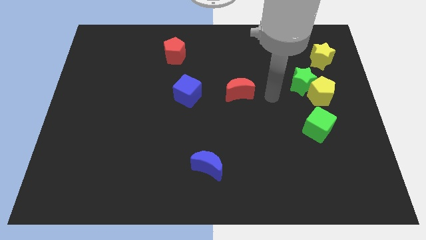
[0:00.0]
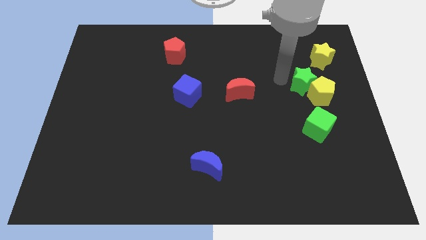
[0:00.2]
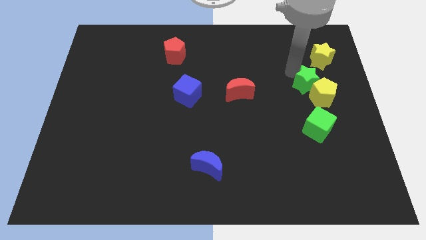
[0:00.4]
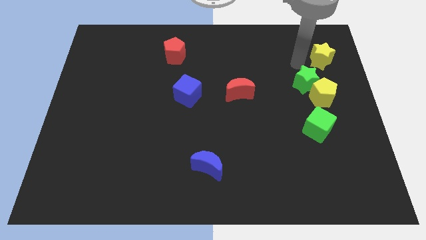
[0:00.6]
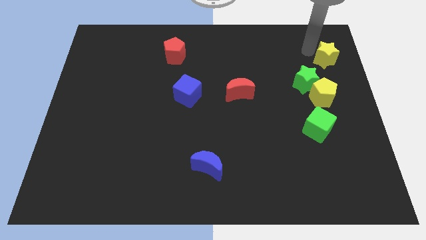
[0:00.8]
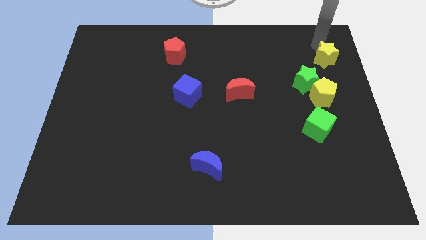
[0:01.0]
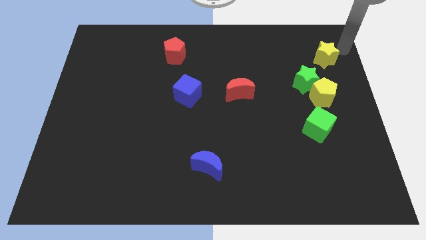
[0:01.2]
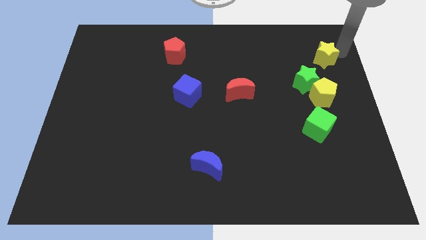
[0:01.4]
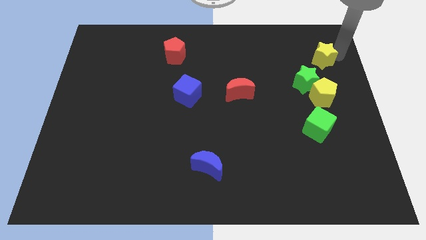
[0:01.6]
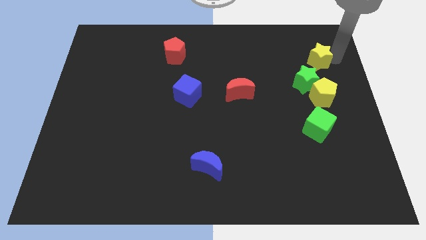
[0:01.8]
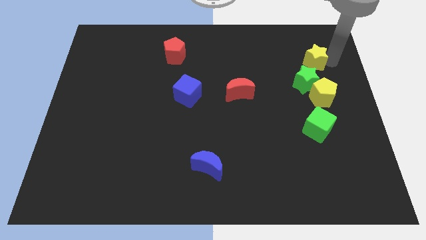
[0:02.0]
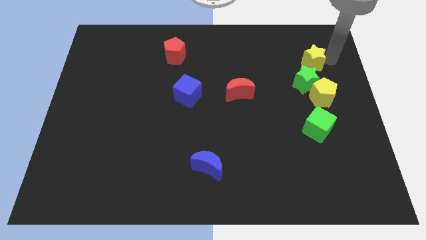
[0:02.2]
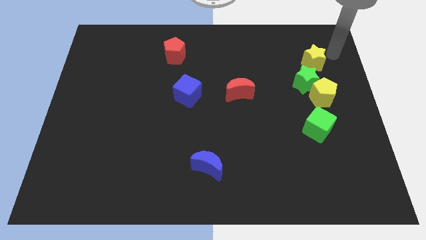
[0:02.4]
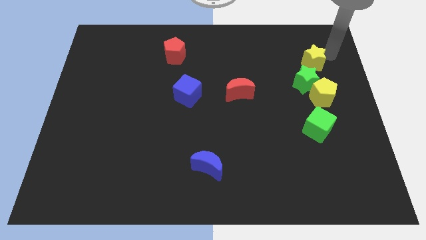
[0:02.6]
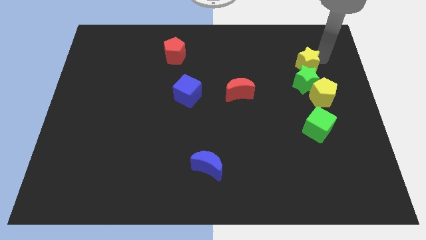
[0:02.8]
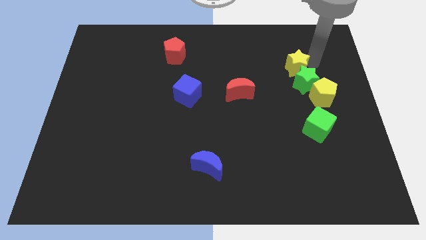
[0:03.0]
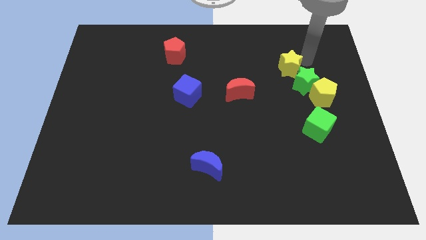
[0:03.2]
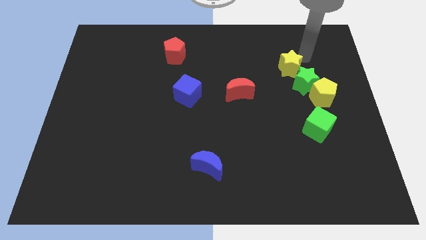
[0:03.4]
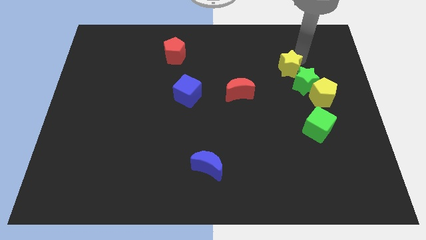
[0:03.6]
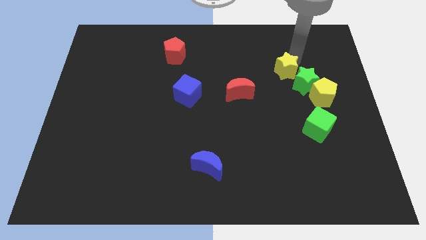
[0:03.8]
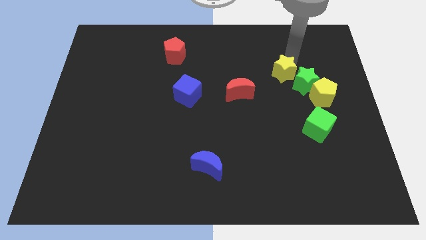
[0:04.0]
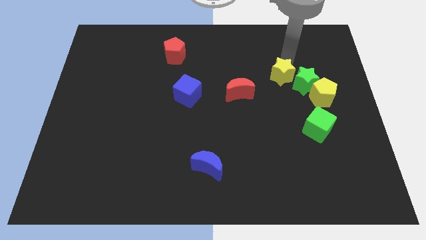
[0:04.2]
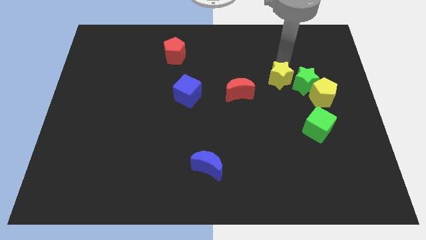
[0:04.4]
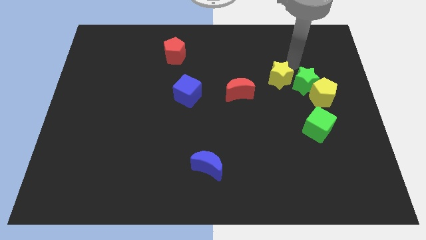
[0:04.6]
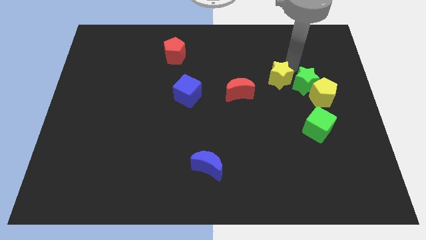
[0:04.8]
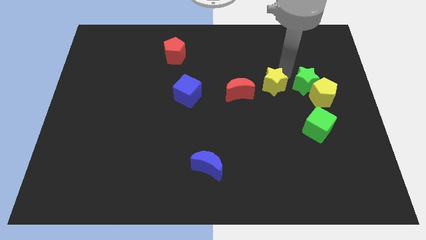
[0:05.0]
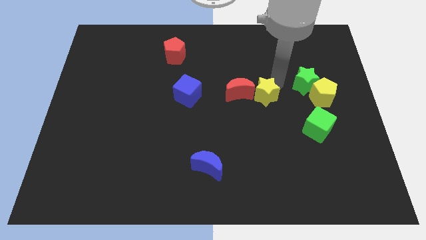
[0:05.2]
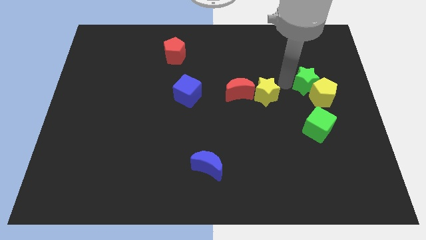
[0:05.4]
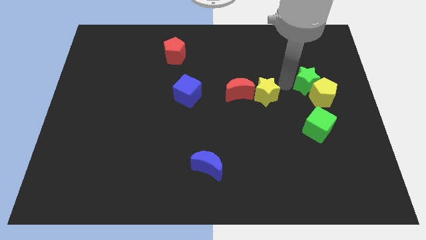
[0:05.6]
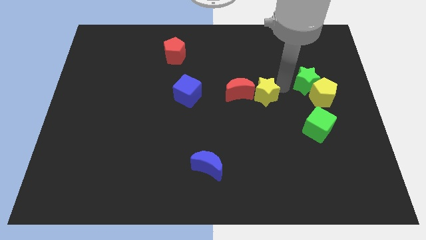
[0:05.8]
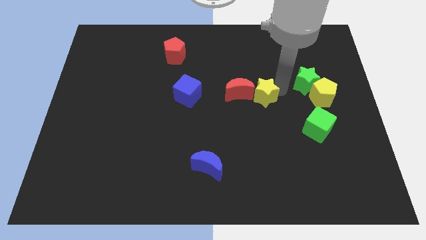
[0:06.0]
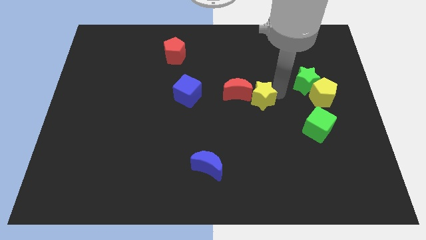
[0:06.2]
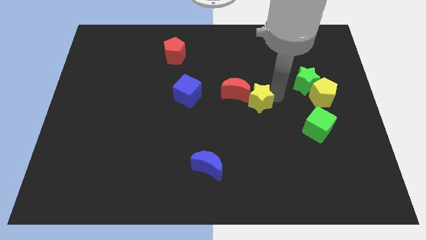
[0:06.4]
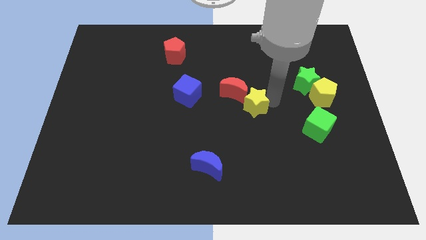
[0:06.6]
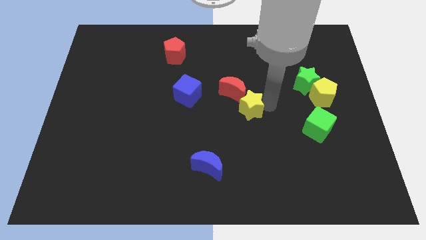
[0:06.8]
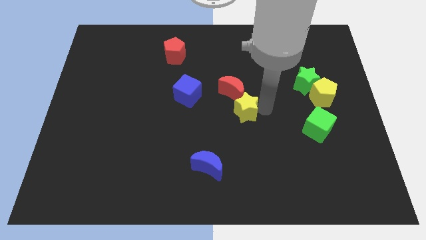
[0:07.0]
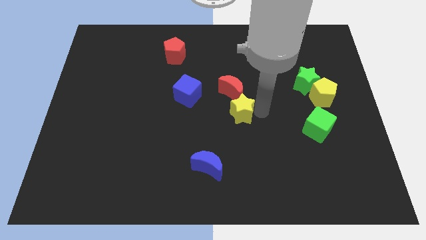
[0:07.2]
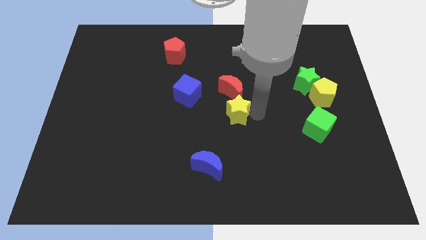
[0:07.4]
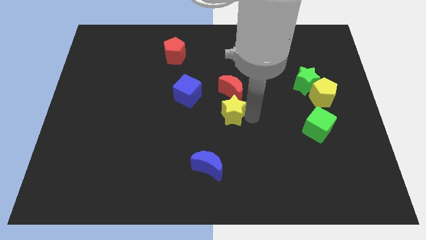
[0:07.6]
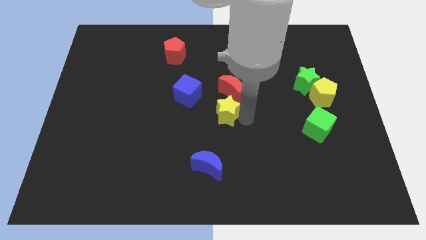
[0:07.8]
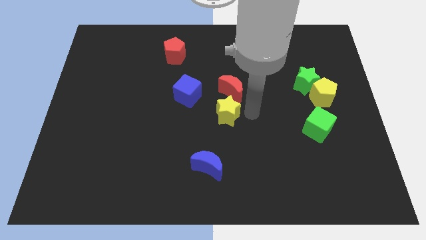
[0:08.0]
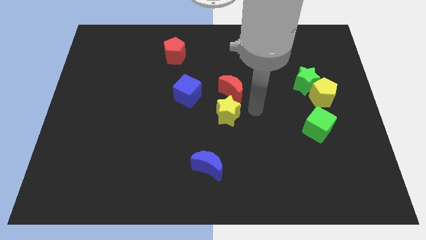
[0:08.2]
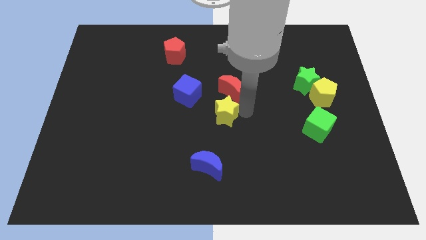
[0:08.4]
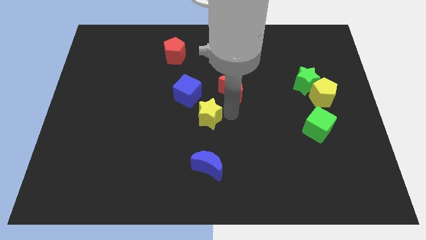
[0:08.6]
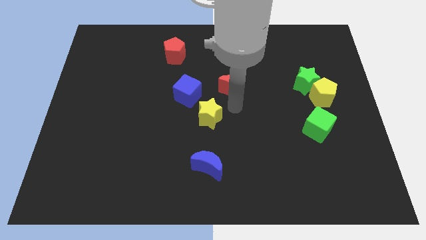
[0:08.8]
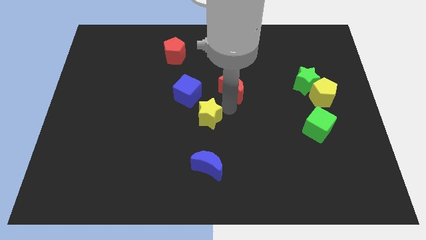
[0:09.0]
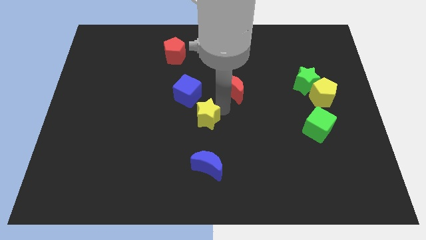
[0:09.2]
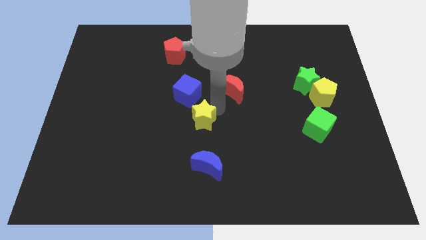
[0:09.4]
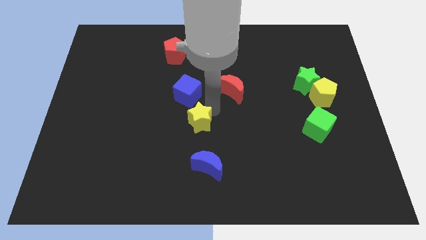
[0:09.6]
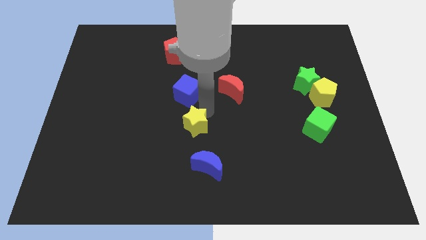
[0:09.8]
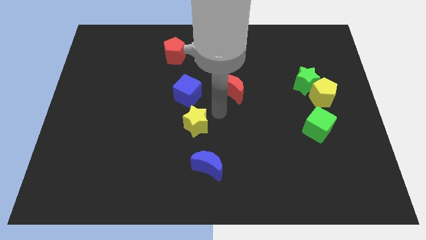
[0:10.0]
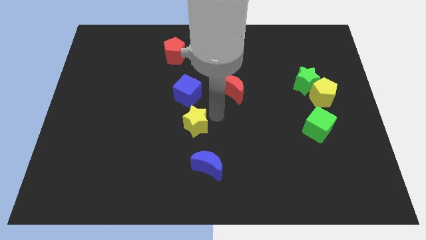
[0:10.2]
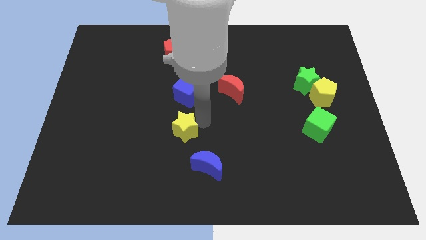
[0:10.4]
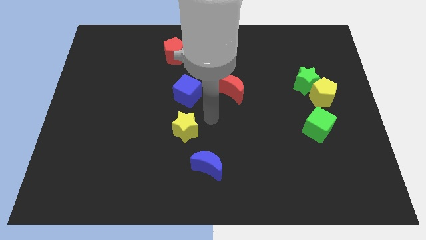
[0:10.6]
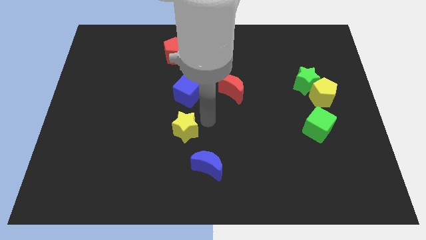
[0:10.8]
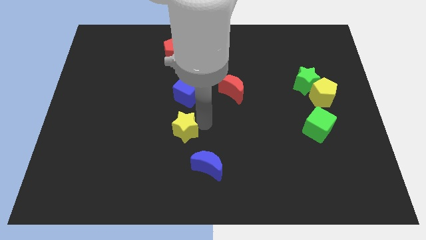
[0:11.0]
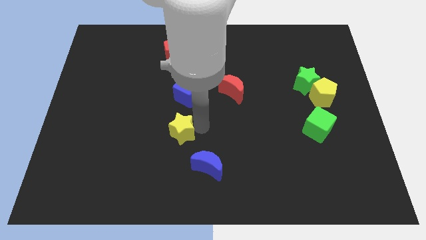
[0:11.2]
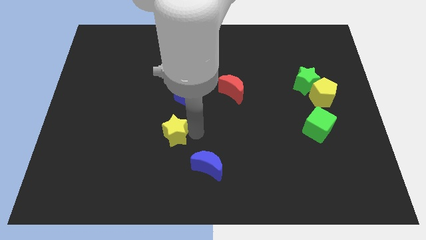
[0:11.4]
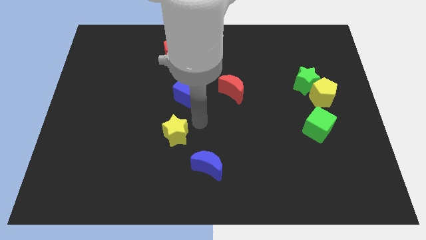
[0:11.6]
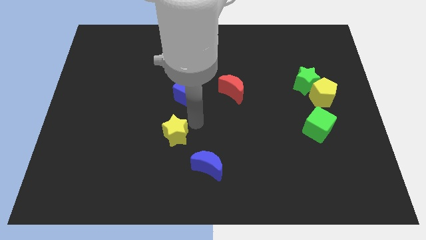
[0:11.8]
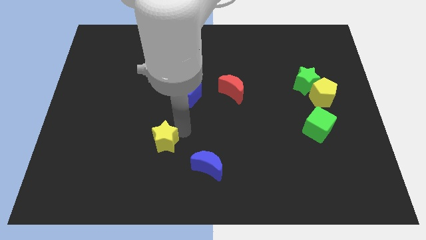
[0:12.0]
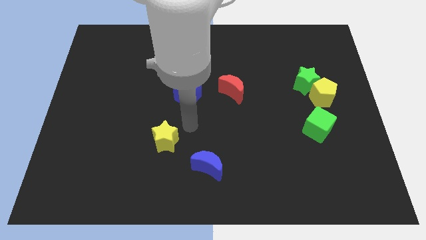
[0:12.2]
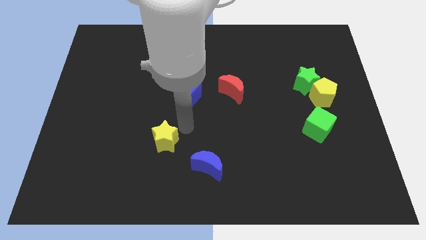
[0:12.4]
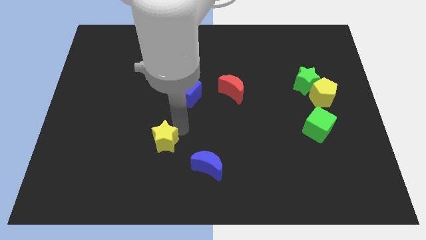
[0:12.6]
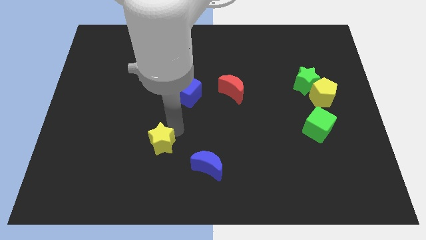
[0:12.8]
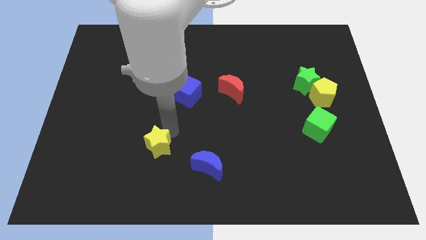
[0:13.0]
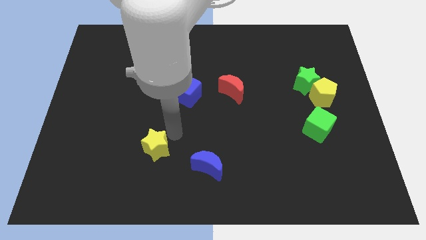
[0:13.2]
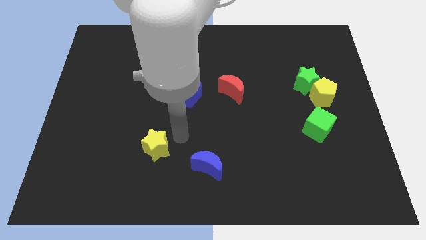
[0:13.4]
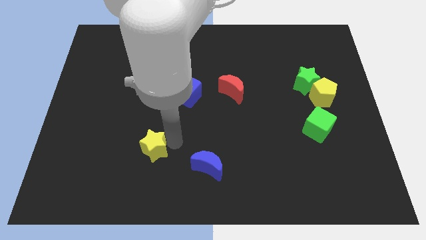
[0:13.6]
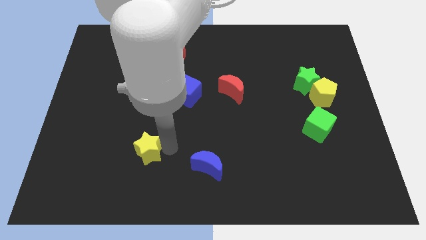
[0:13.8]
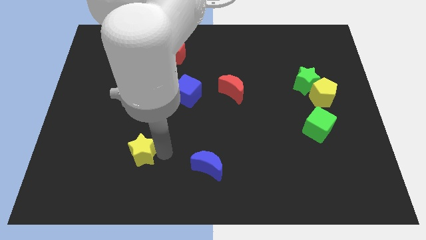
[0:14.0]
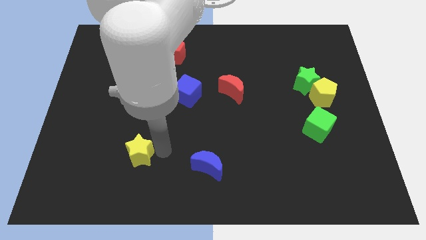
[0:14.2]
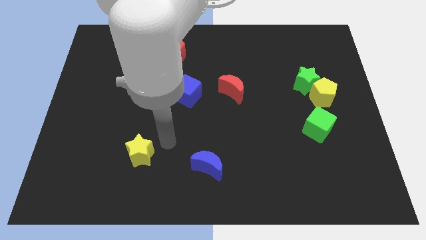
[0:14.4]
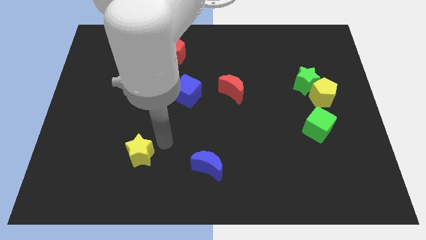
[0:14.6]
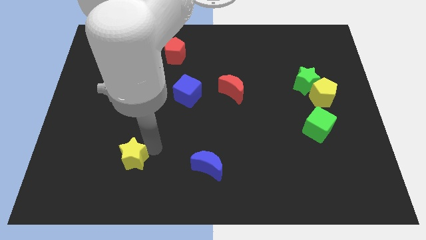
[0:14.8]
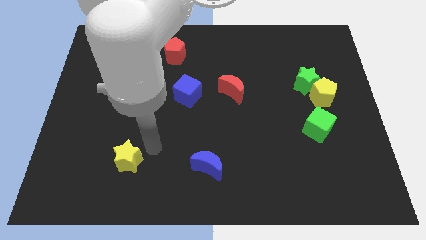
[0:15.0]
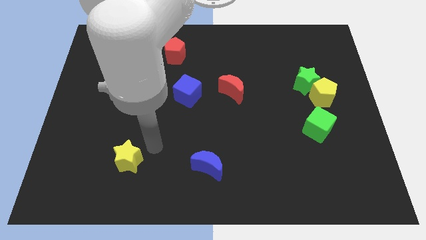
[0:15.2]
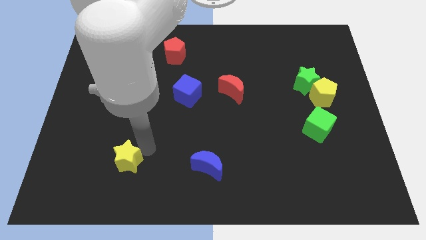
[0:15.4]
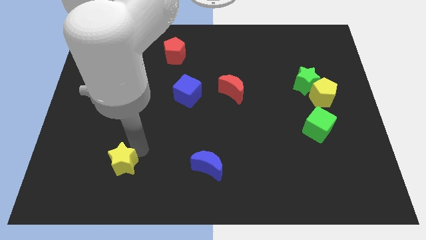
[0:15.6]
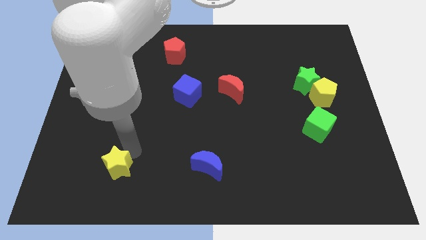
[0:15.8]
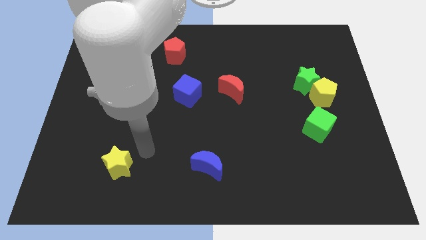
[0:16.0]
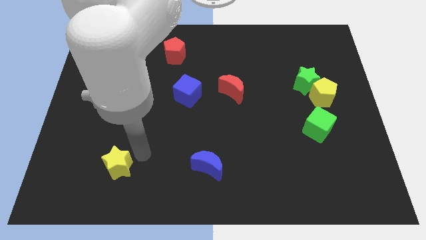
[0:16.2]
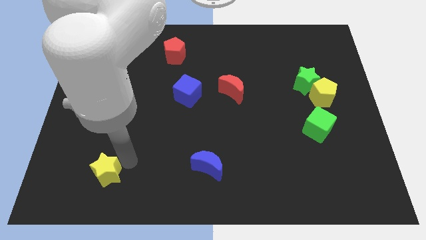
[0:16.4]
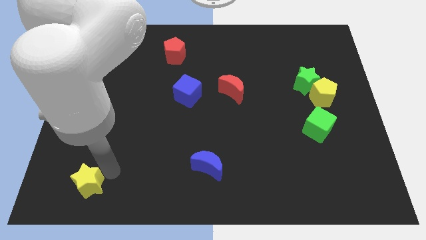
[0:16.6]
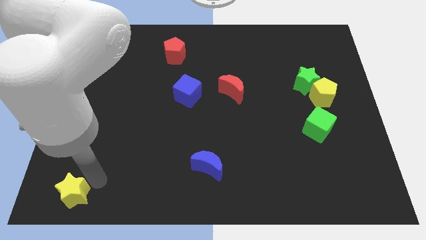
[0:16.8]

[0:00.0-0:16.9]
push the yellow star to the bottom left
